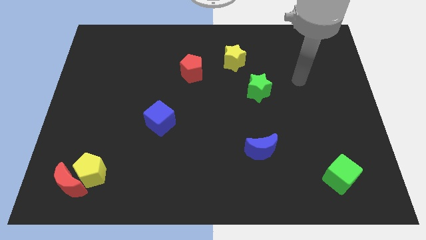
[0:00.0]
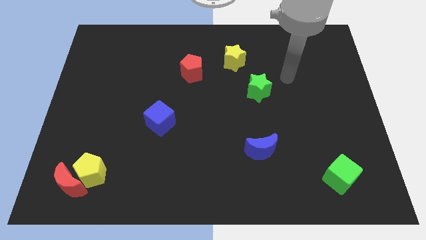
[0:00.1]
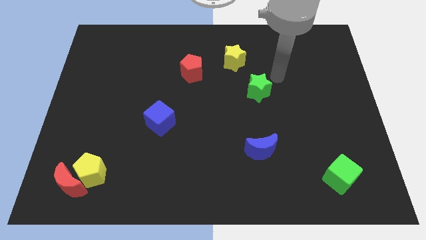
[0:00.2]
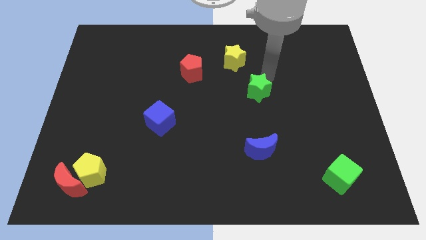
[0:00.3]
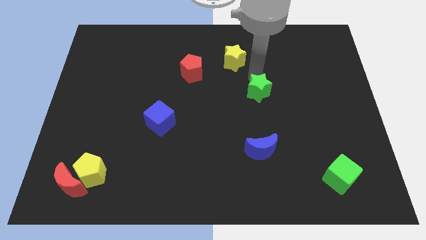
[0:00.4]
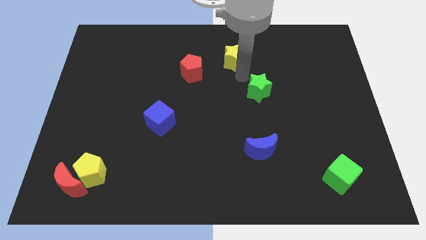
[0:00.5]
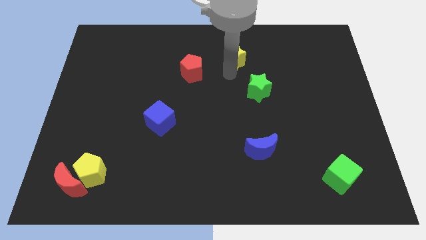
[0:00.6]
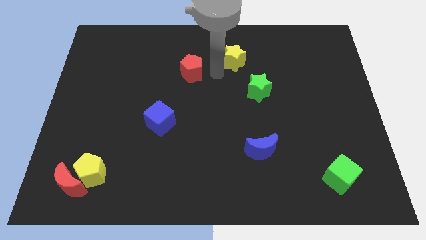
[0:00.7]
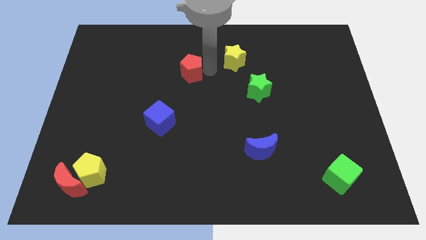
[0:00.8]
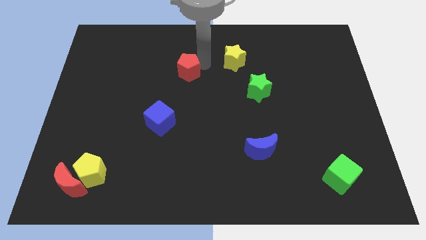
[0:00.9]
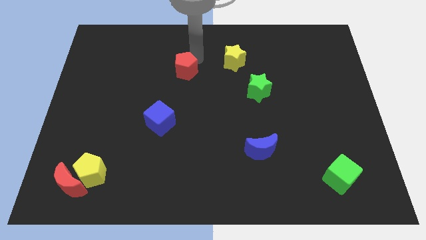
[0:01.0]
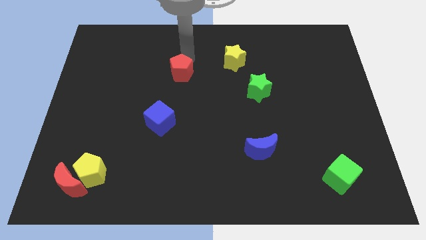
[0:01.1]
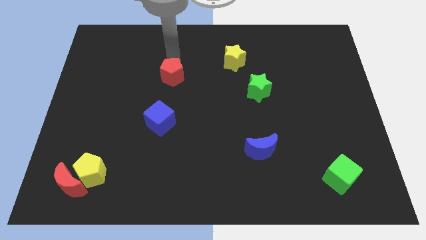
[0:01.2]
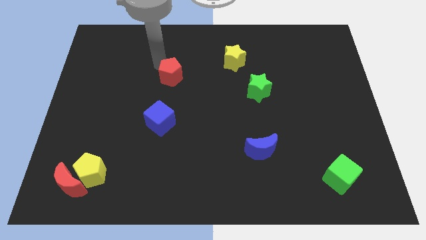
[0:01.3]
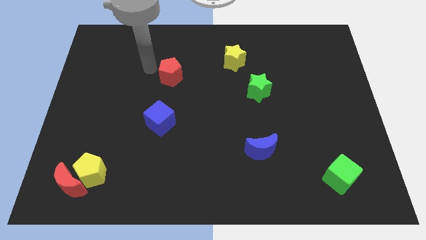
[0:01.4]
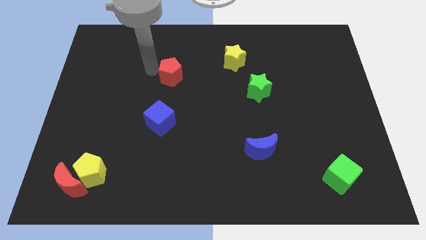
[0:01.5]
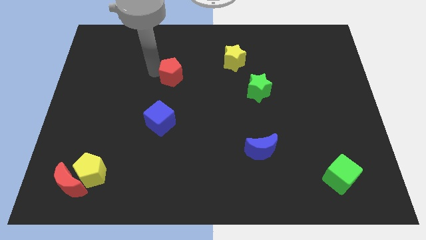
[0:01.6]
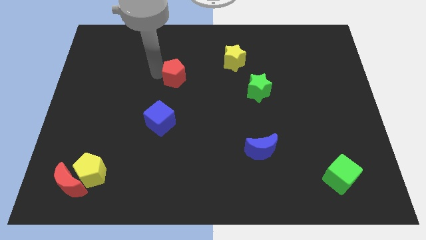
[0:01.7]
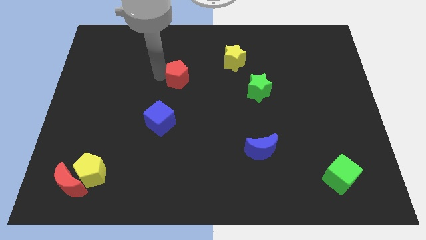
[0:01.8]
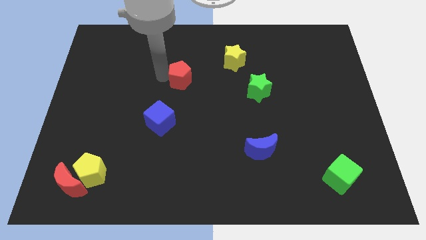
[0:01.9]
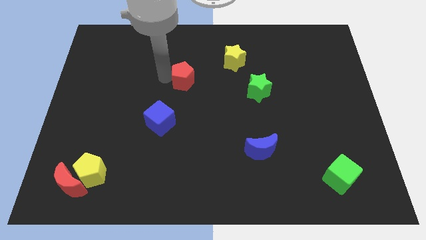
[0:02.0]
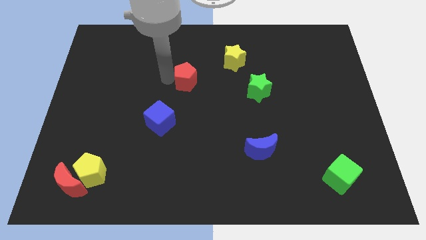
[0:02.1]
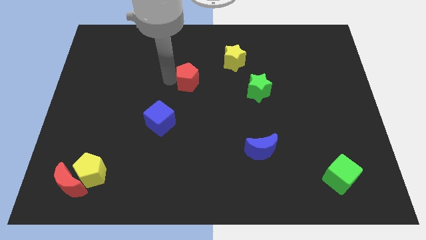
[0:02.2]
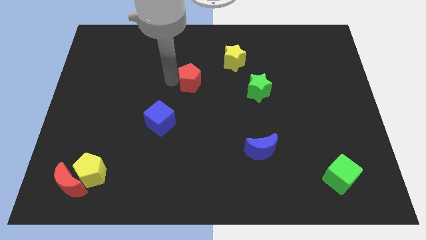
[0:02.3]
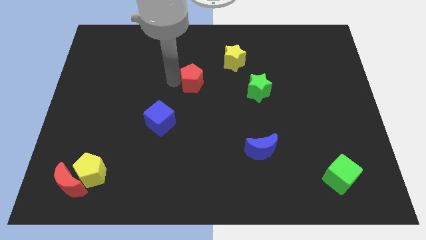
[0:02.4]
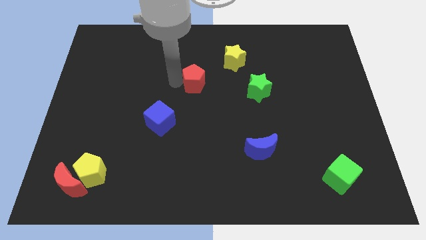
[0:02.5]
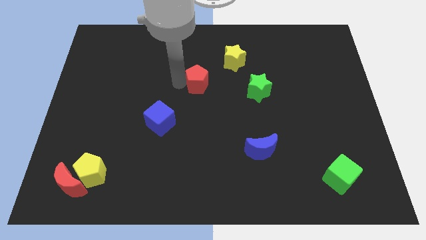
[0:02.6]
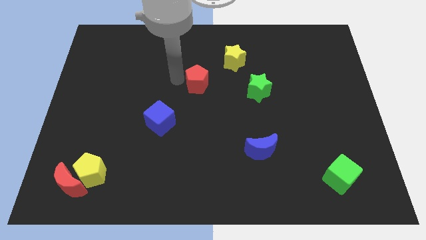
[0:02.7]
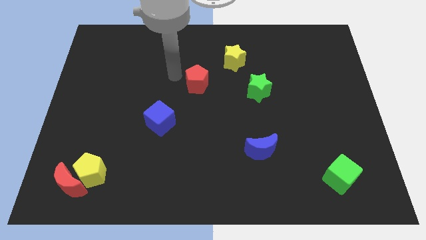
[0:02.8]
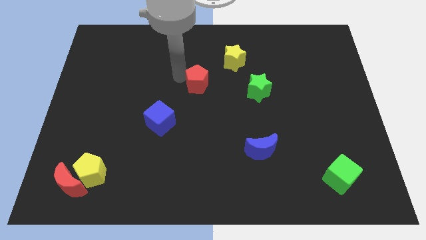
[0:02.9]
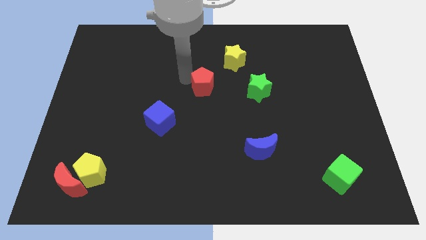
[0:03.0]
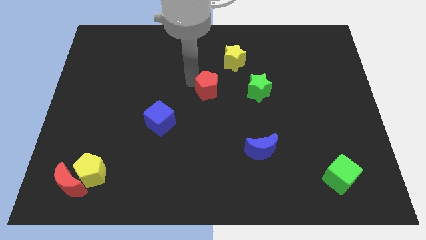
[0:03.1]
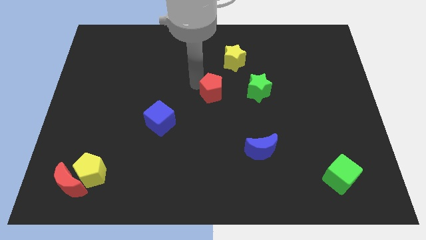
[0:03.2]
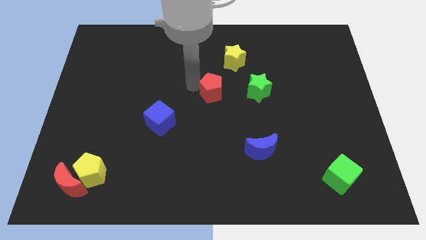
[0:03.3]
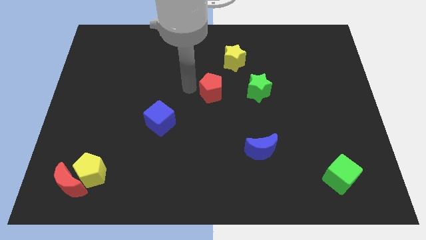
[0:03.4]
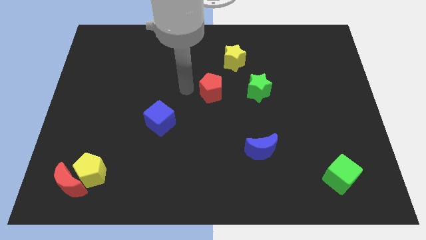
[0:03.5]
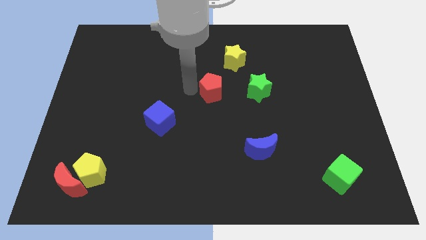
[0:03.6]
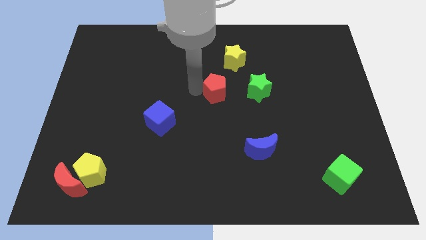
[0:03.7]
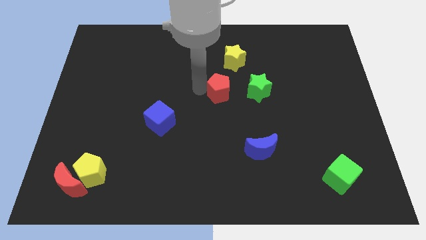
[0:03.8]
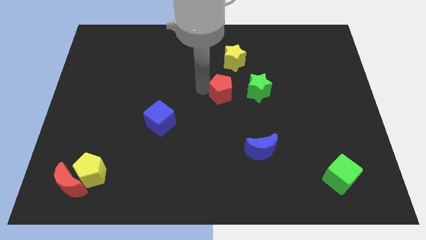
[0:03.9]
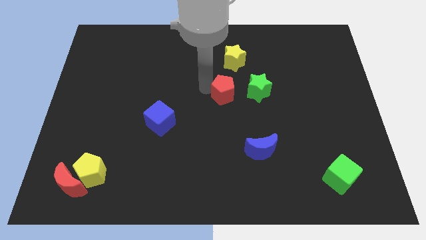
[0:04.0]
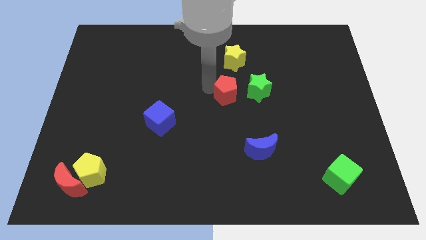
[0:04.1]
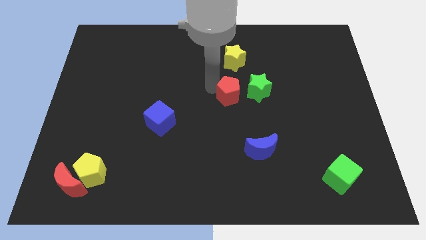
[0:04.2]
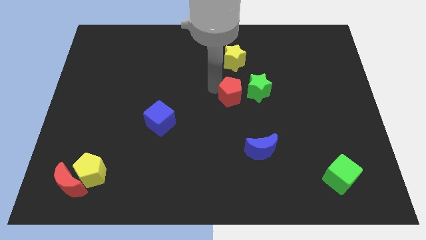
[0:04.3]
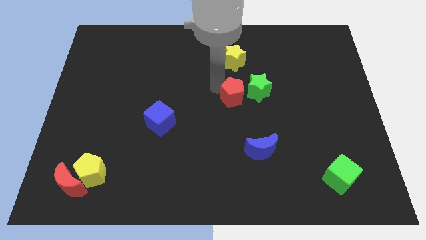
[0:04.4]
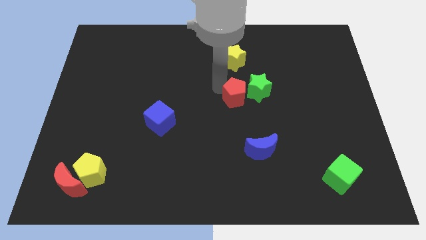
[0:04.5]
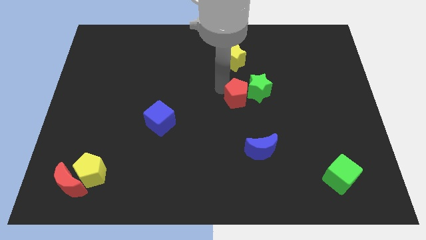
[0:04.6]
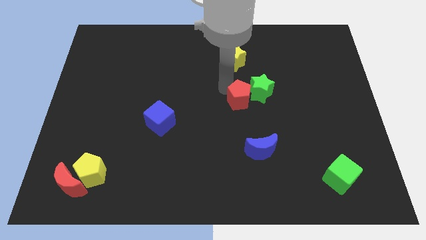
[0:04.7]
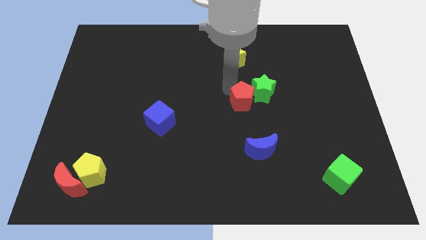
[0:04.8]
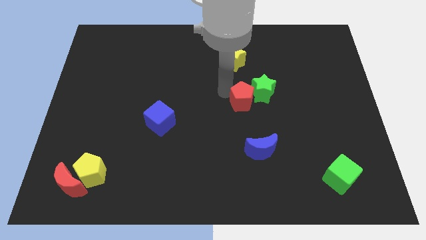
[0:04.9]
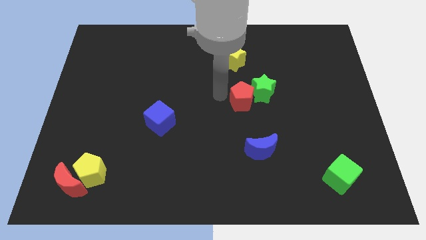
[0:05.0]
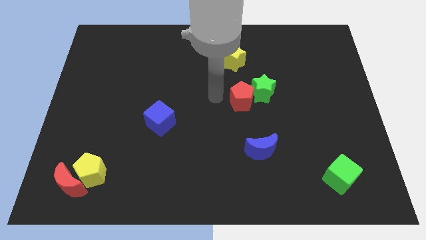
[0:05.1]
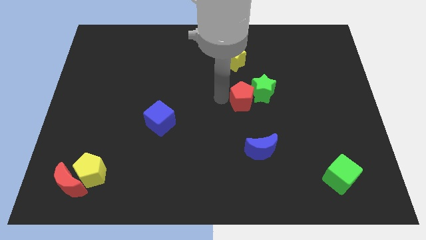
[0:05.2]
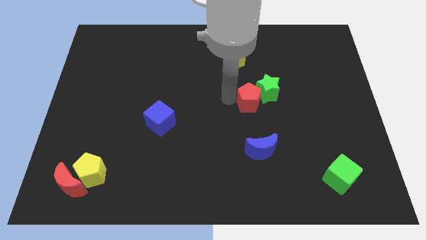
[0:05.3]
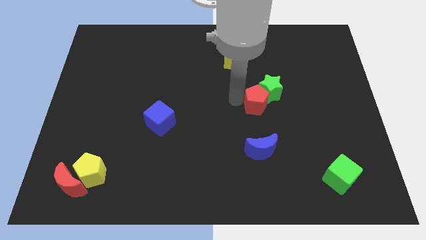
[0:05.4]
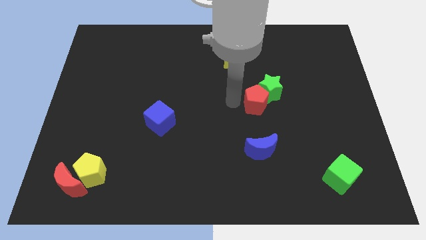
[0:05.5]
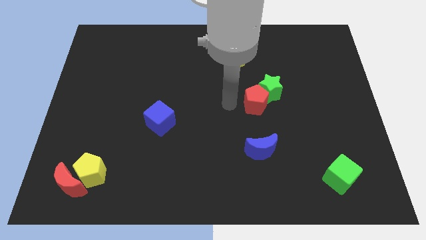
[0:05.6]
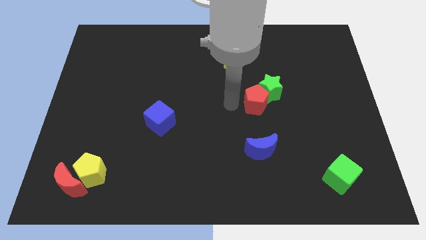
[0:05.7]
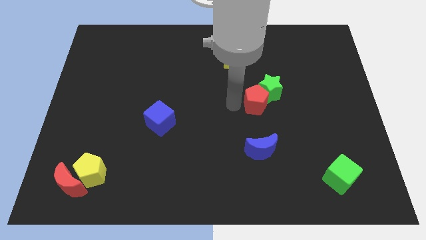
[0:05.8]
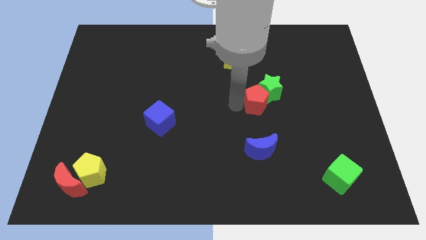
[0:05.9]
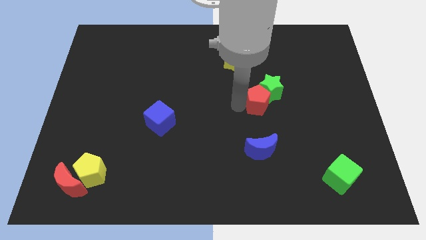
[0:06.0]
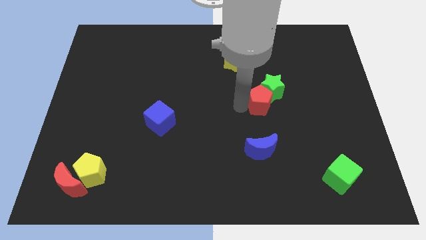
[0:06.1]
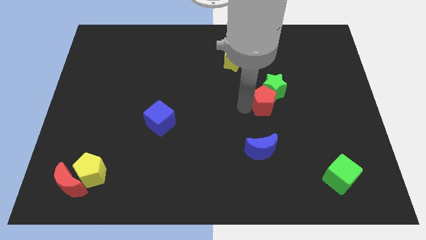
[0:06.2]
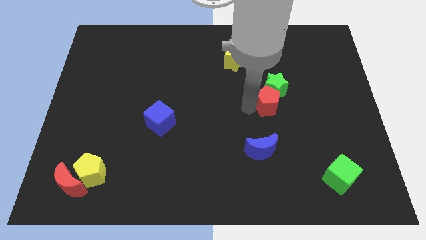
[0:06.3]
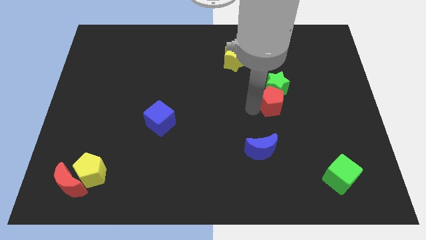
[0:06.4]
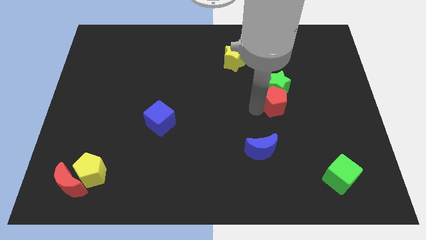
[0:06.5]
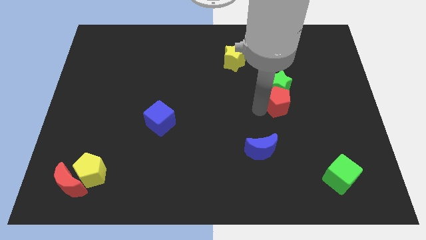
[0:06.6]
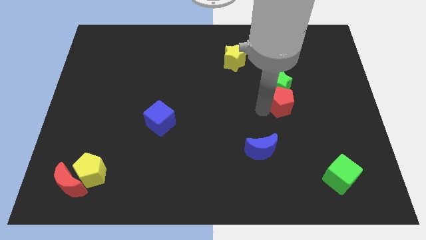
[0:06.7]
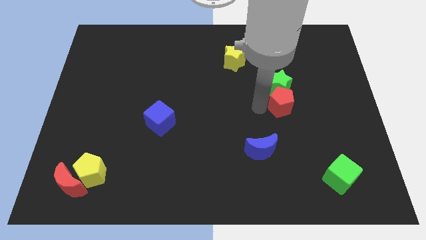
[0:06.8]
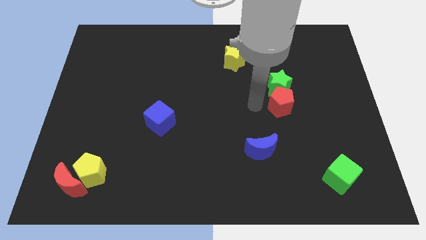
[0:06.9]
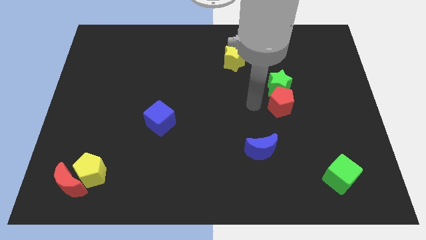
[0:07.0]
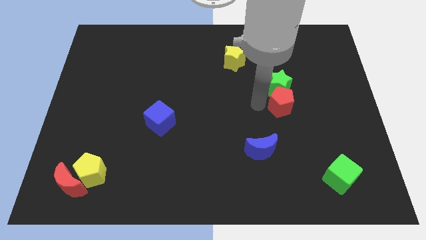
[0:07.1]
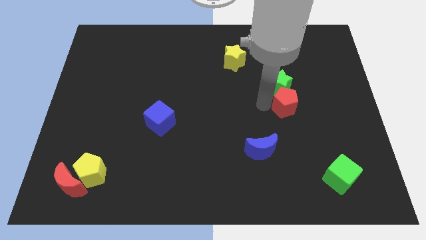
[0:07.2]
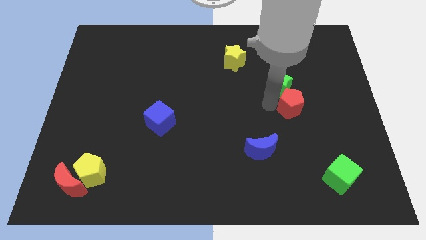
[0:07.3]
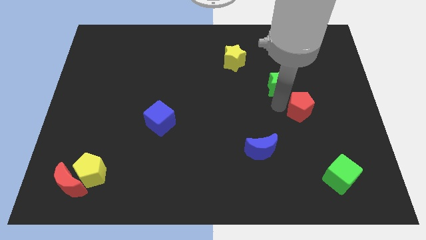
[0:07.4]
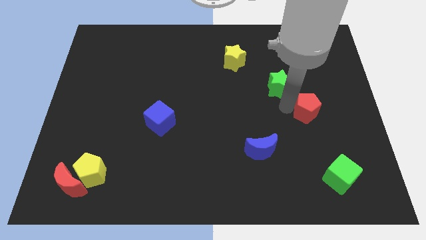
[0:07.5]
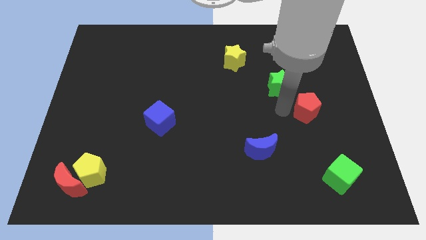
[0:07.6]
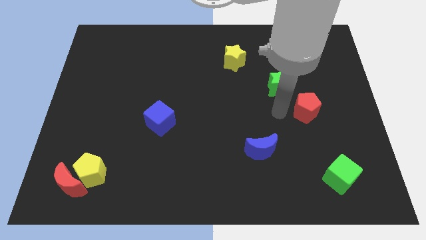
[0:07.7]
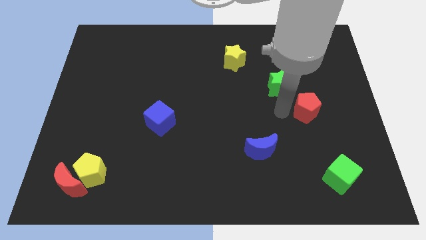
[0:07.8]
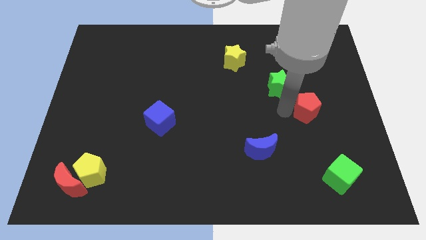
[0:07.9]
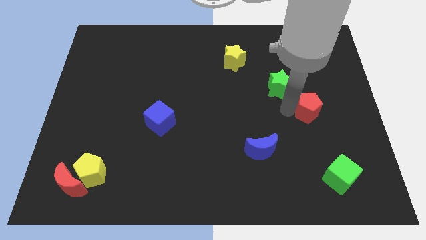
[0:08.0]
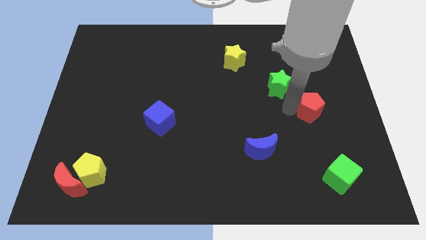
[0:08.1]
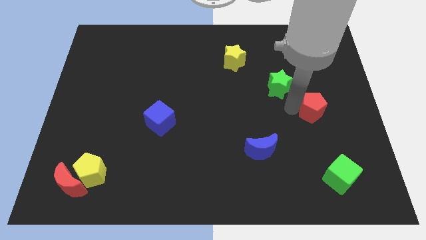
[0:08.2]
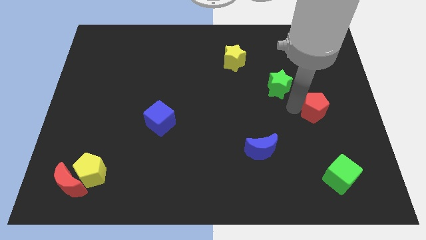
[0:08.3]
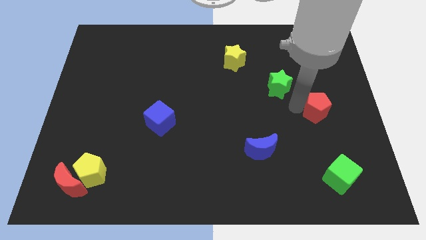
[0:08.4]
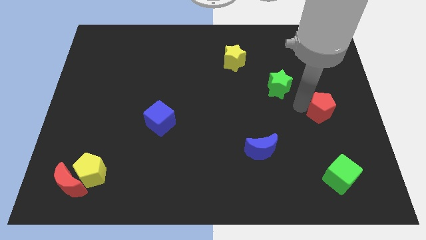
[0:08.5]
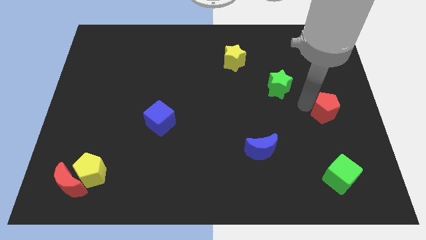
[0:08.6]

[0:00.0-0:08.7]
move the red pentagon to the right side of the board
